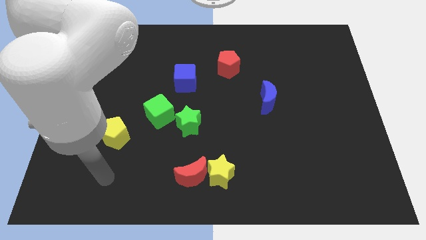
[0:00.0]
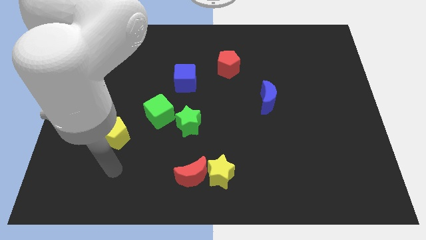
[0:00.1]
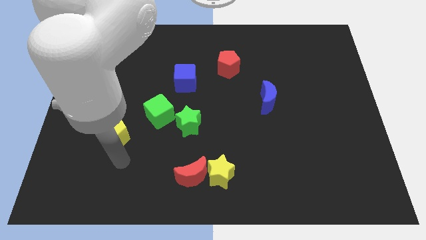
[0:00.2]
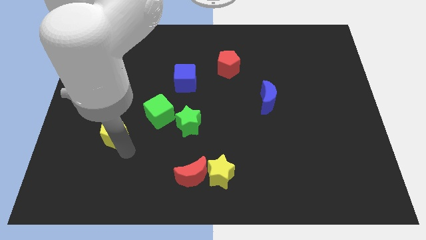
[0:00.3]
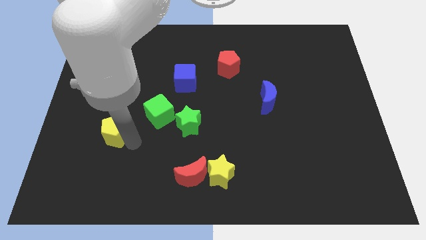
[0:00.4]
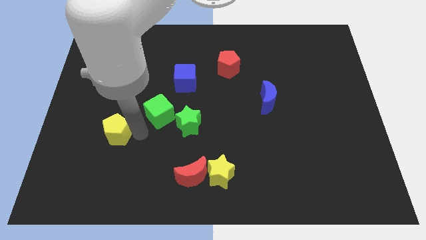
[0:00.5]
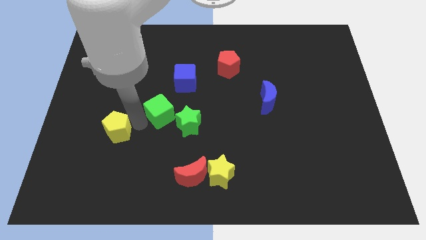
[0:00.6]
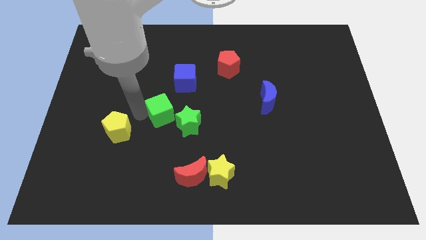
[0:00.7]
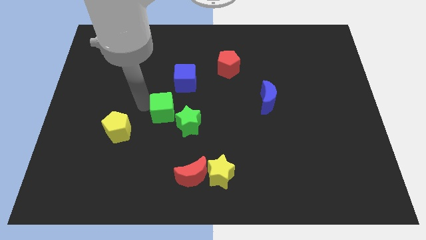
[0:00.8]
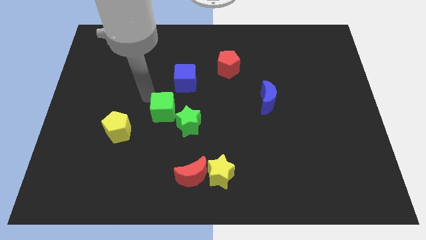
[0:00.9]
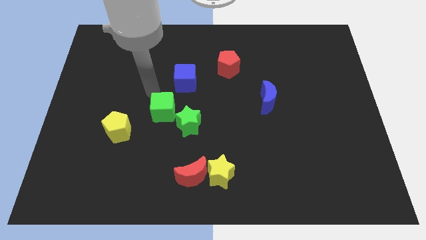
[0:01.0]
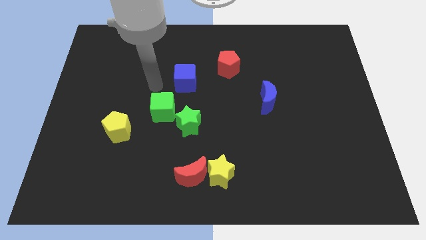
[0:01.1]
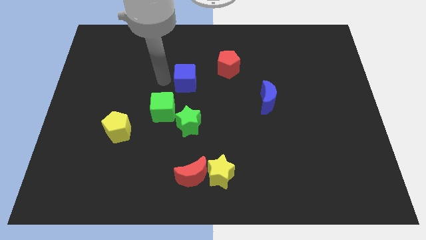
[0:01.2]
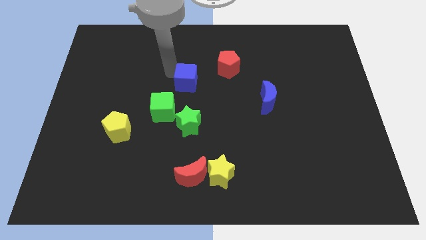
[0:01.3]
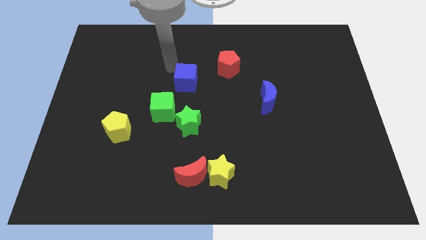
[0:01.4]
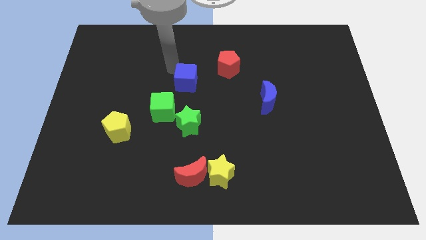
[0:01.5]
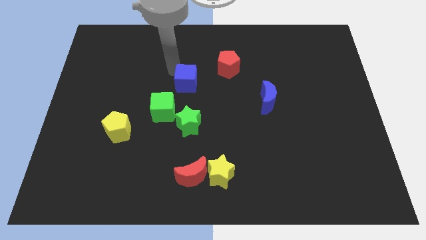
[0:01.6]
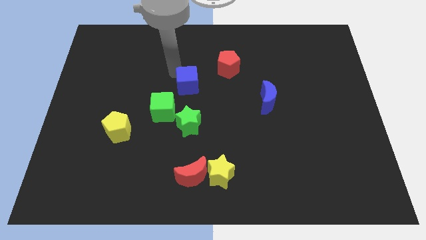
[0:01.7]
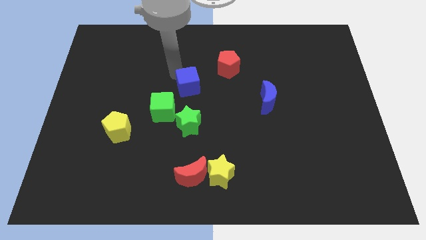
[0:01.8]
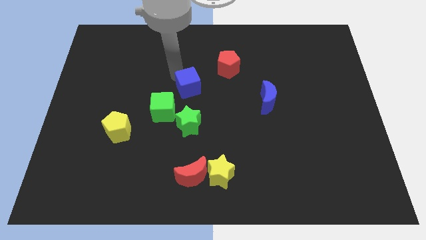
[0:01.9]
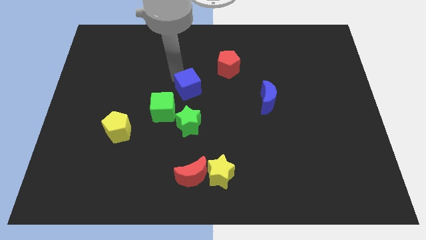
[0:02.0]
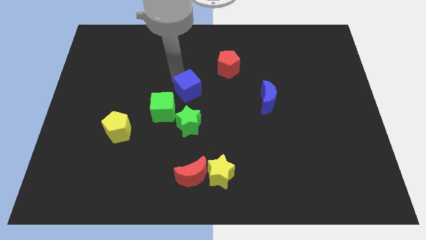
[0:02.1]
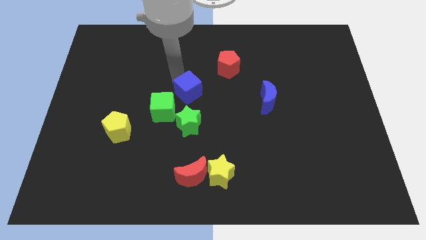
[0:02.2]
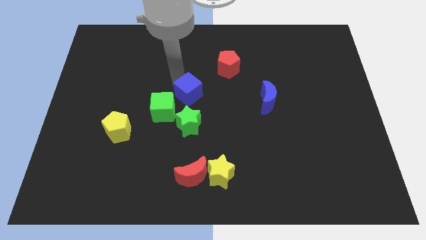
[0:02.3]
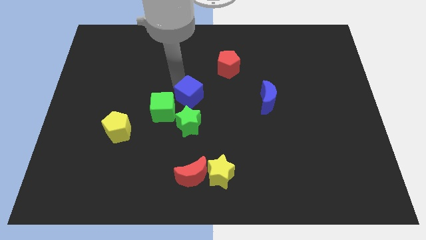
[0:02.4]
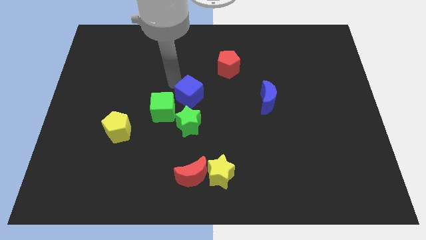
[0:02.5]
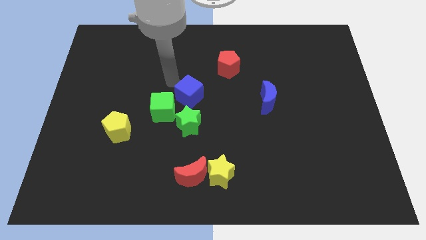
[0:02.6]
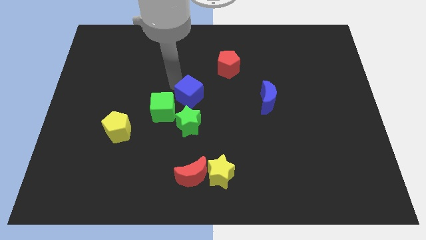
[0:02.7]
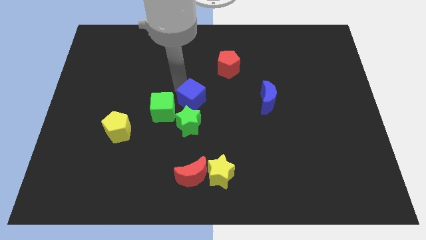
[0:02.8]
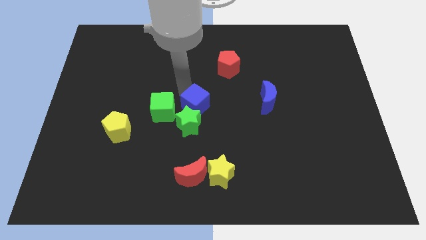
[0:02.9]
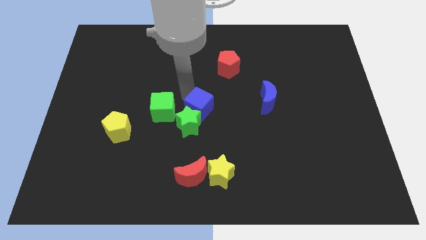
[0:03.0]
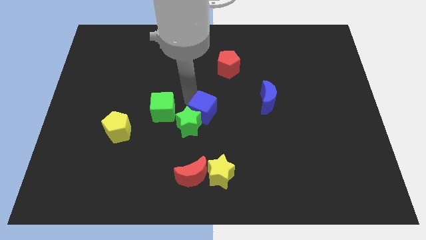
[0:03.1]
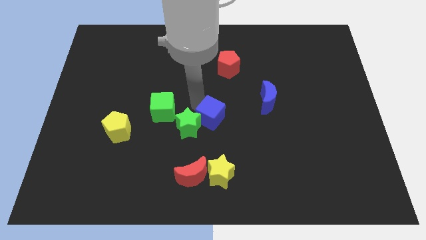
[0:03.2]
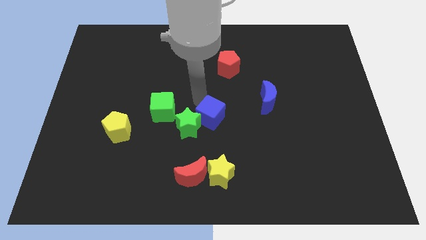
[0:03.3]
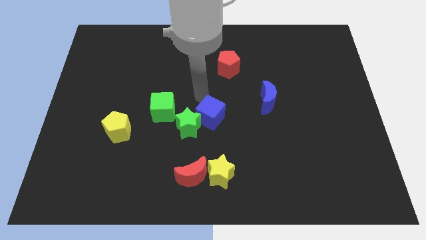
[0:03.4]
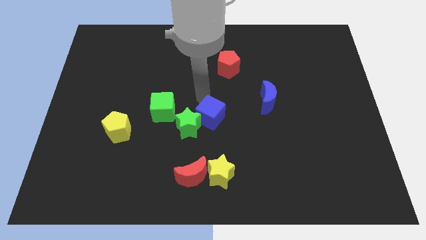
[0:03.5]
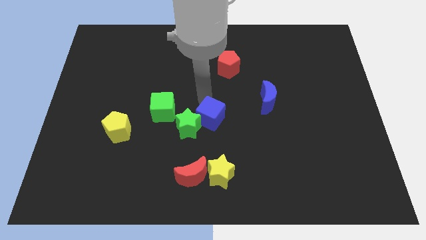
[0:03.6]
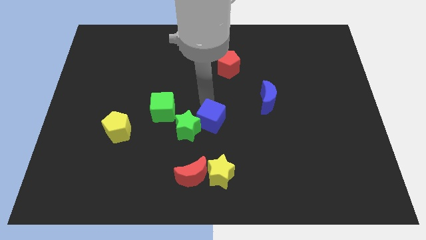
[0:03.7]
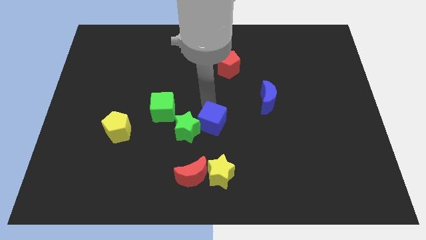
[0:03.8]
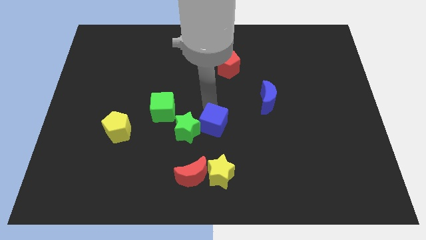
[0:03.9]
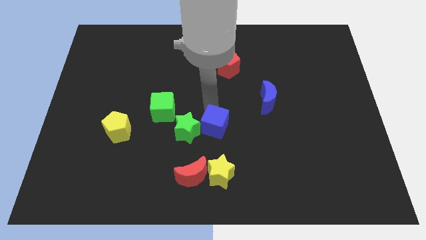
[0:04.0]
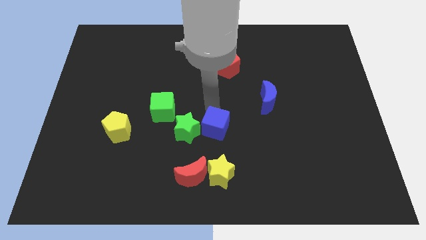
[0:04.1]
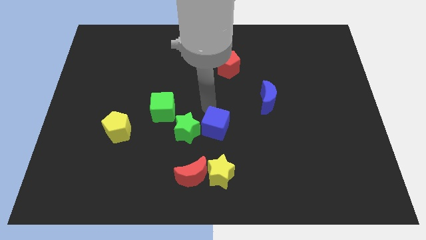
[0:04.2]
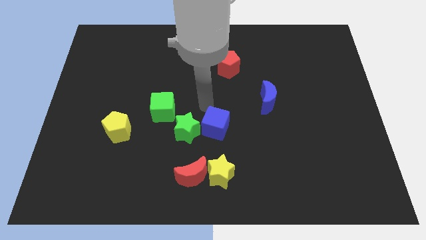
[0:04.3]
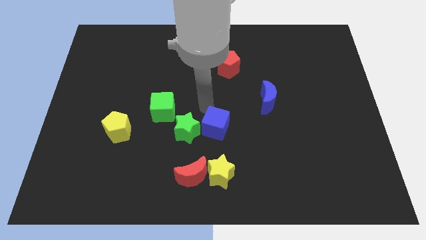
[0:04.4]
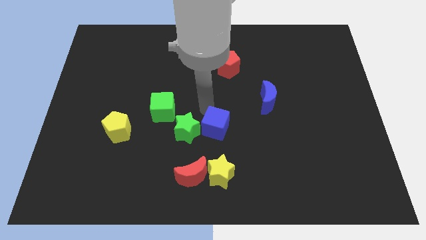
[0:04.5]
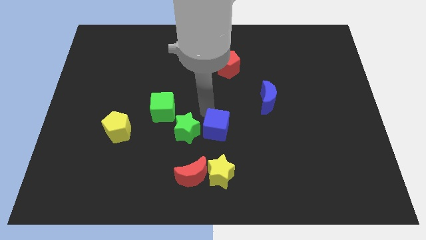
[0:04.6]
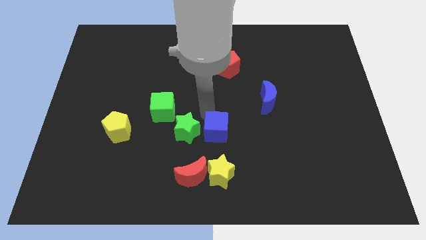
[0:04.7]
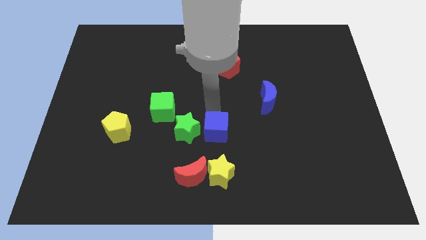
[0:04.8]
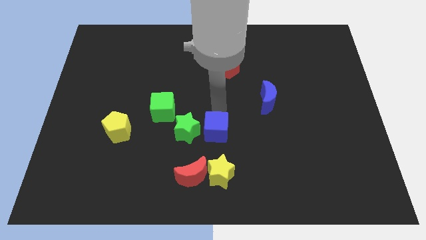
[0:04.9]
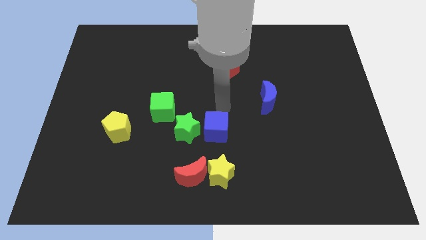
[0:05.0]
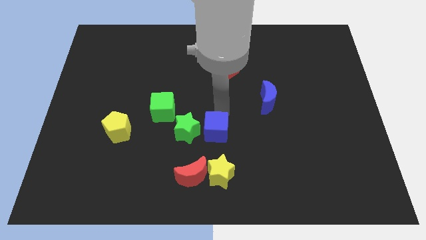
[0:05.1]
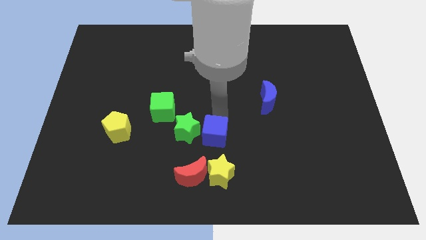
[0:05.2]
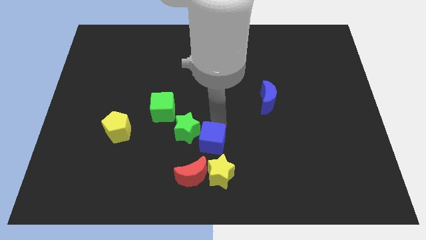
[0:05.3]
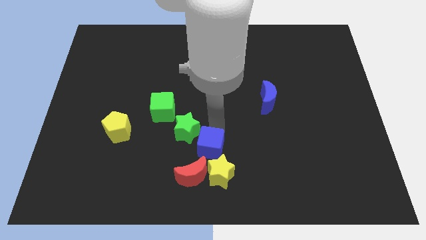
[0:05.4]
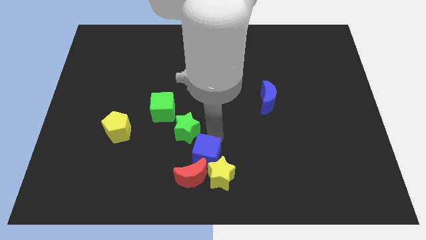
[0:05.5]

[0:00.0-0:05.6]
move the blue cube towards the red moon

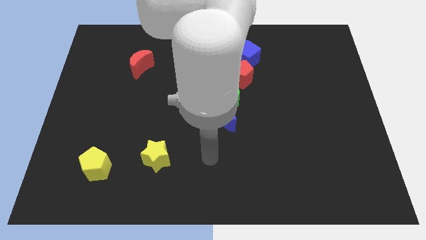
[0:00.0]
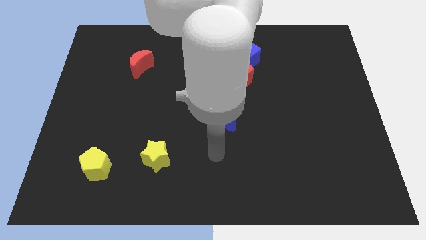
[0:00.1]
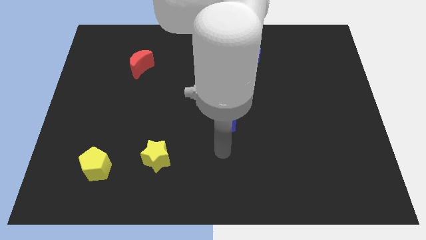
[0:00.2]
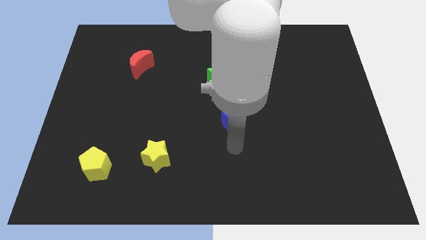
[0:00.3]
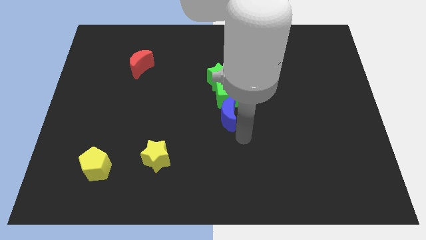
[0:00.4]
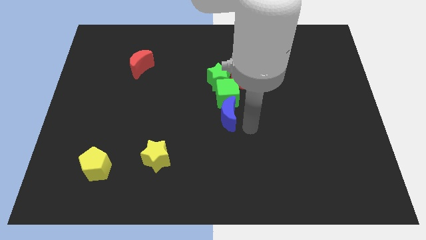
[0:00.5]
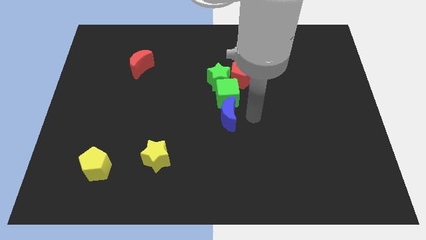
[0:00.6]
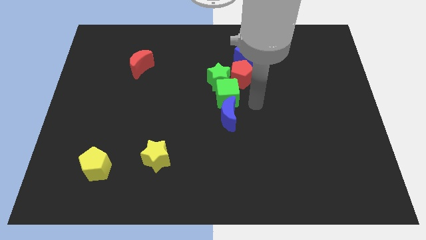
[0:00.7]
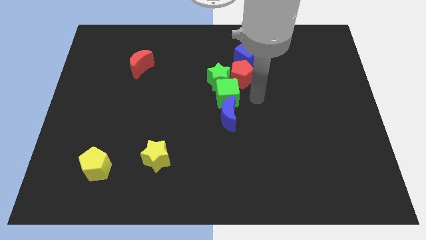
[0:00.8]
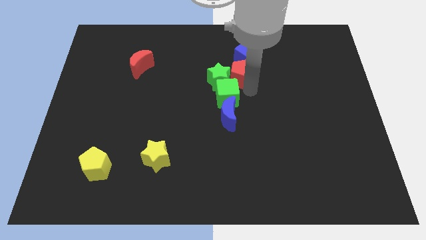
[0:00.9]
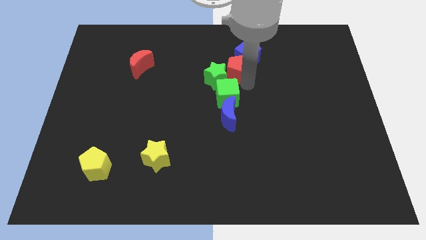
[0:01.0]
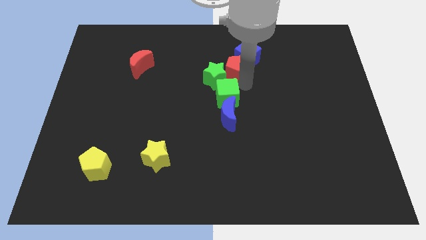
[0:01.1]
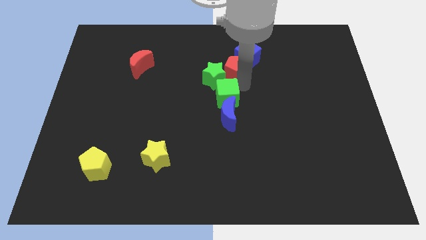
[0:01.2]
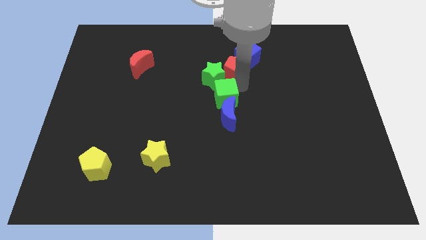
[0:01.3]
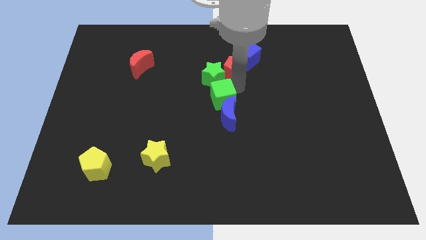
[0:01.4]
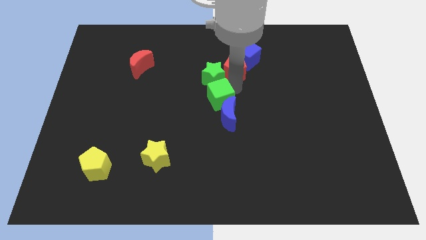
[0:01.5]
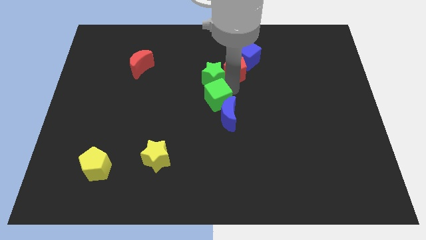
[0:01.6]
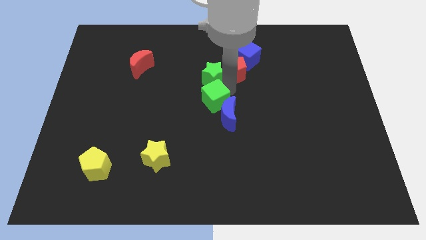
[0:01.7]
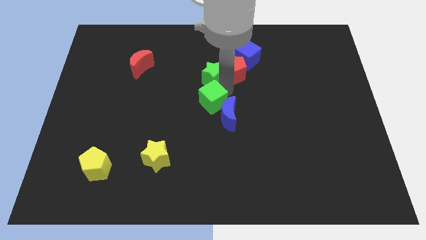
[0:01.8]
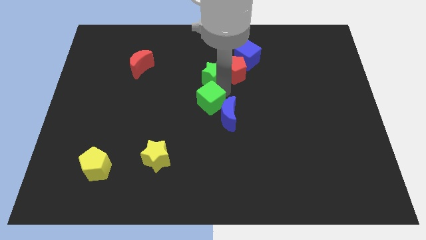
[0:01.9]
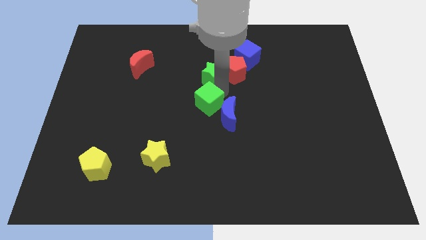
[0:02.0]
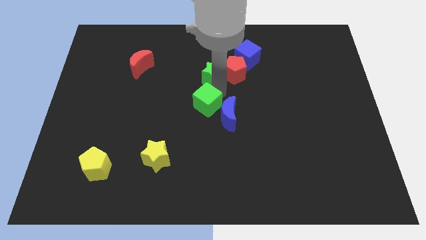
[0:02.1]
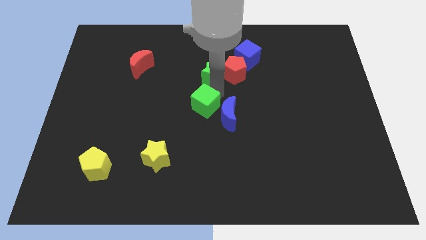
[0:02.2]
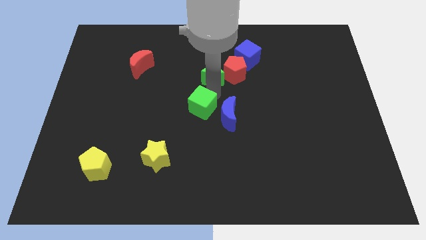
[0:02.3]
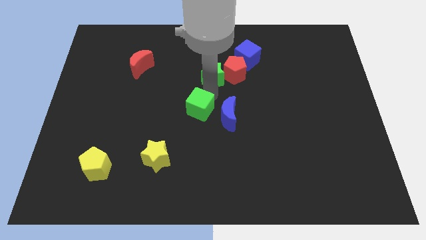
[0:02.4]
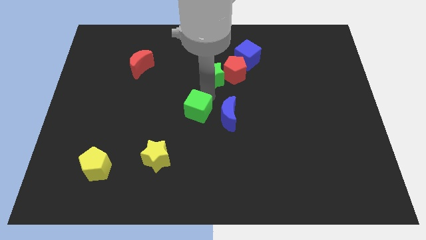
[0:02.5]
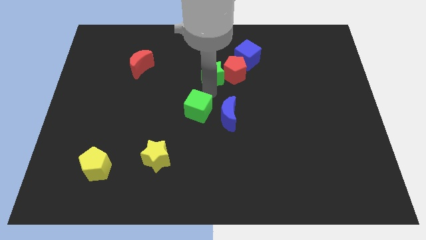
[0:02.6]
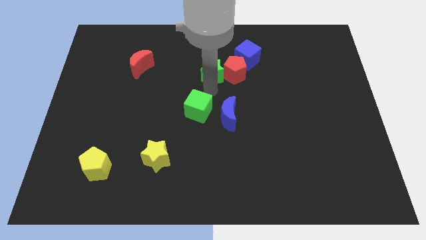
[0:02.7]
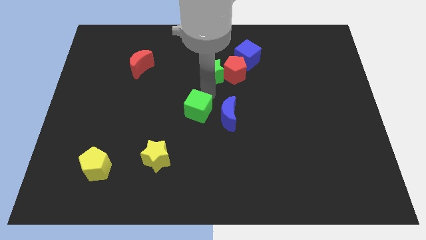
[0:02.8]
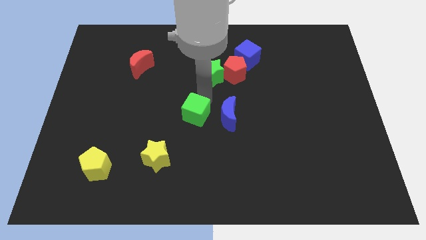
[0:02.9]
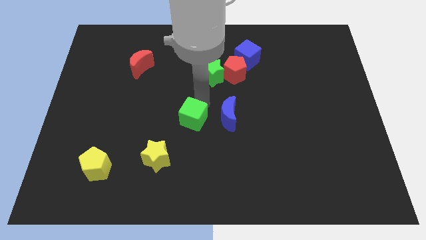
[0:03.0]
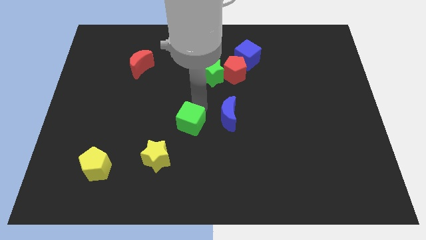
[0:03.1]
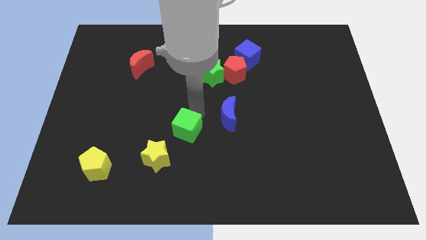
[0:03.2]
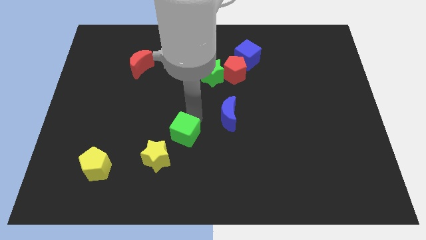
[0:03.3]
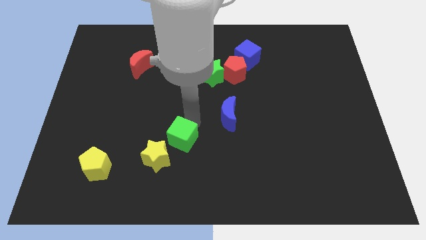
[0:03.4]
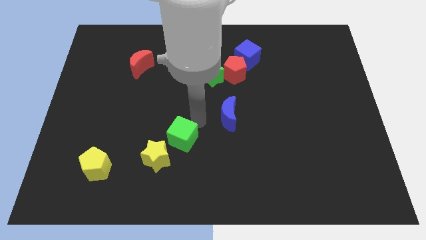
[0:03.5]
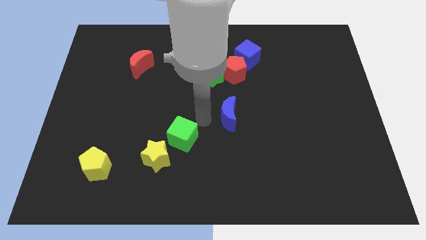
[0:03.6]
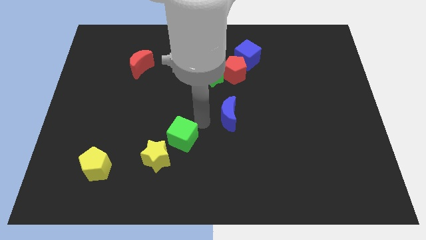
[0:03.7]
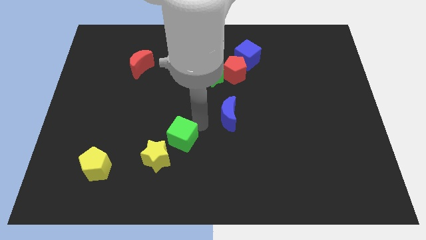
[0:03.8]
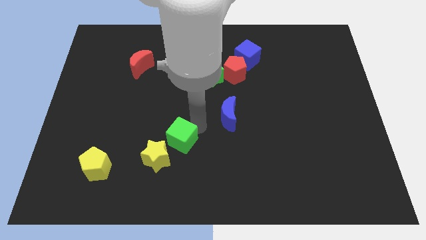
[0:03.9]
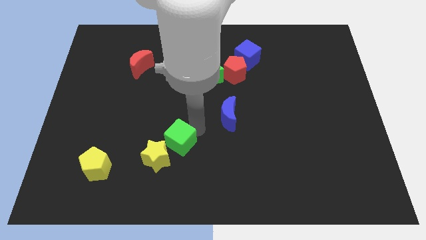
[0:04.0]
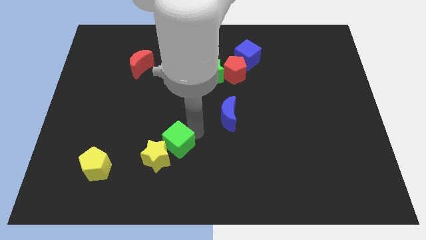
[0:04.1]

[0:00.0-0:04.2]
push the green cube next to the yellow star
